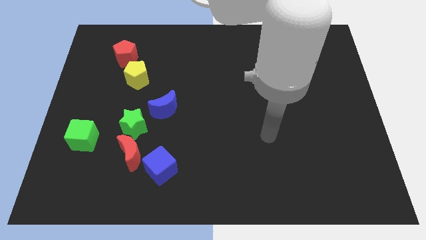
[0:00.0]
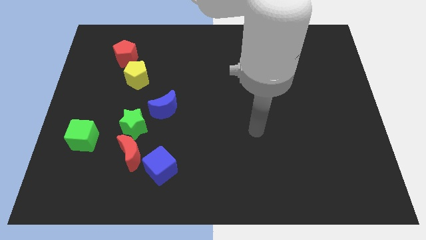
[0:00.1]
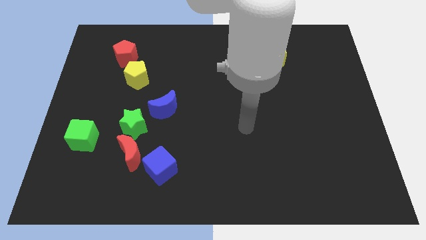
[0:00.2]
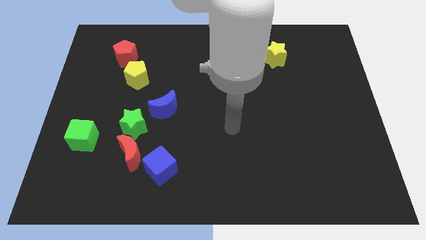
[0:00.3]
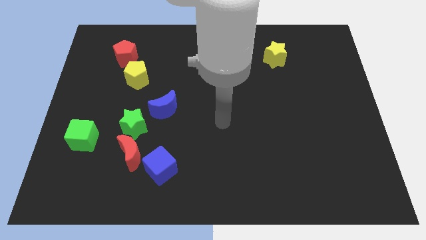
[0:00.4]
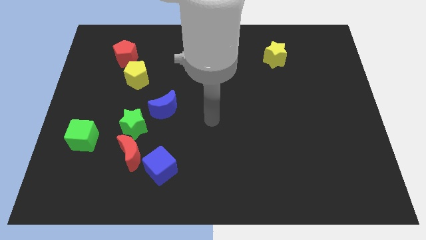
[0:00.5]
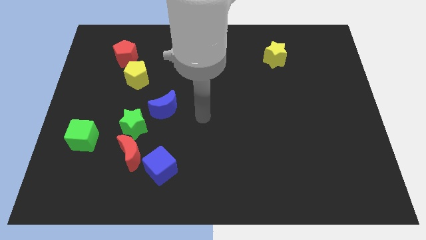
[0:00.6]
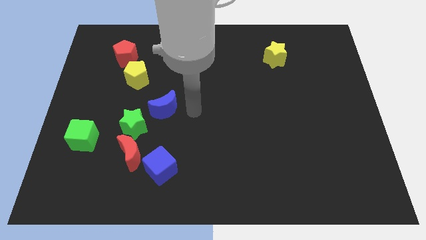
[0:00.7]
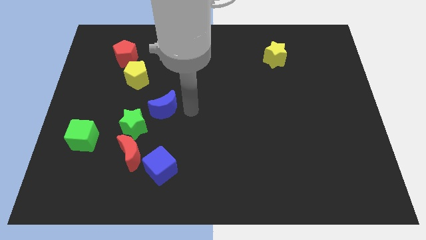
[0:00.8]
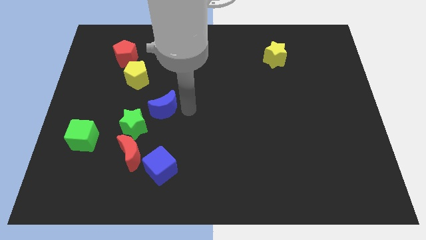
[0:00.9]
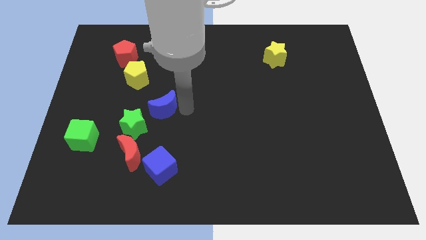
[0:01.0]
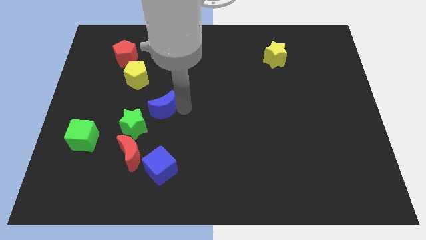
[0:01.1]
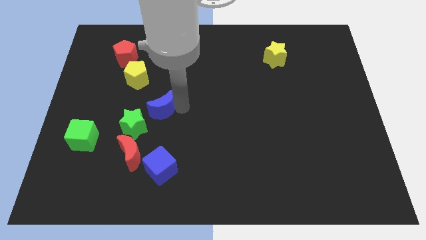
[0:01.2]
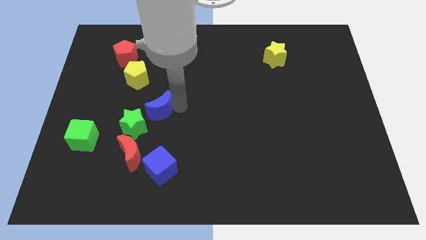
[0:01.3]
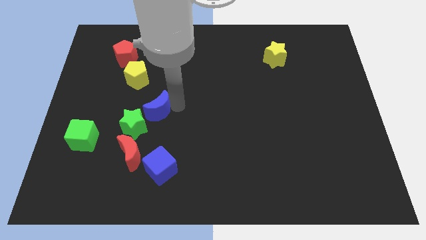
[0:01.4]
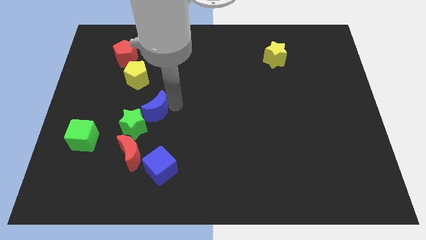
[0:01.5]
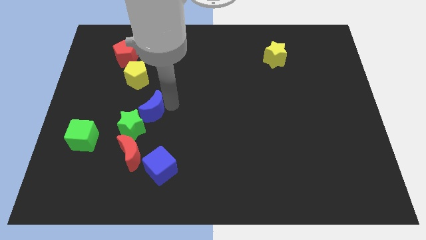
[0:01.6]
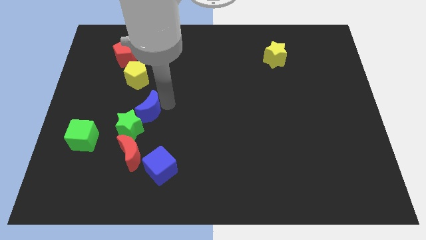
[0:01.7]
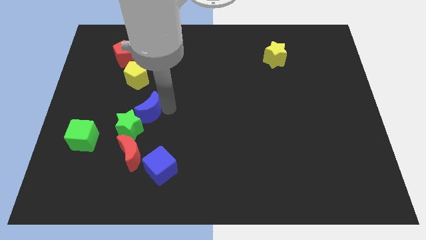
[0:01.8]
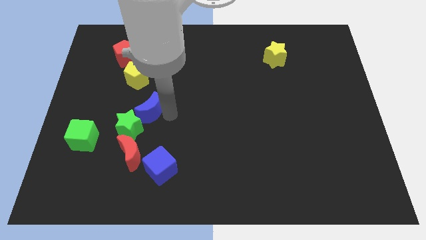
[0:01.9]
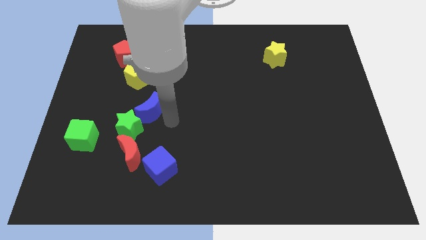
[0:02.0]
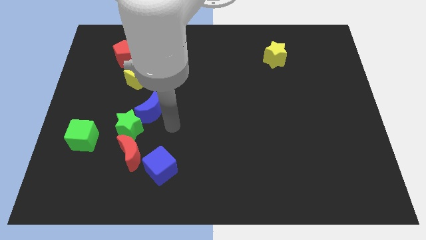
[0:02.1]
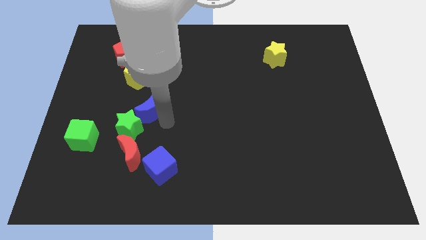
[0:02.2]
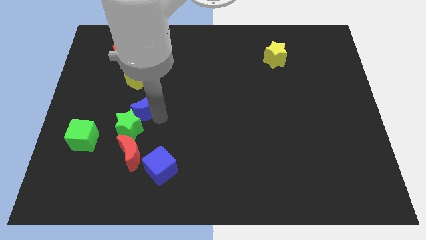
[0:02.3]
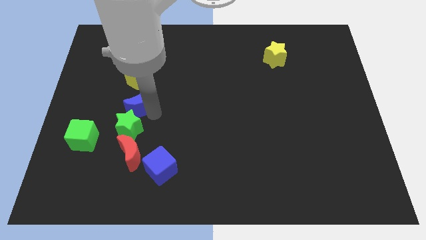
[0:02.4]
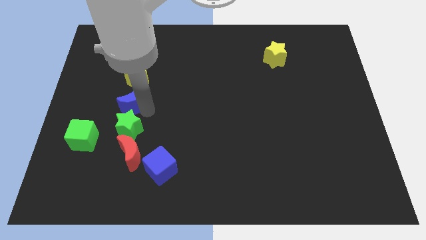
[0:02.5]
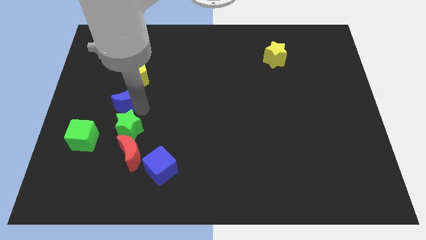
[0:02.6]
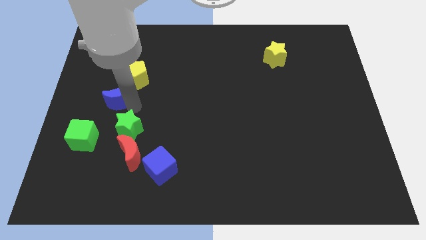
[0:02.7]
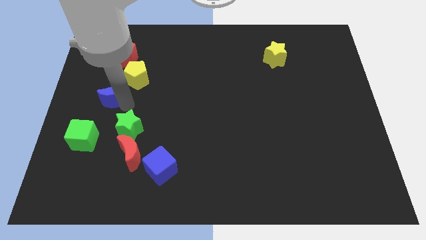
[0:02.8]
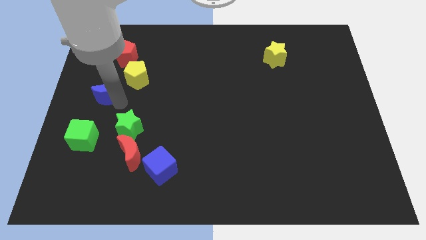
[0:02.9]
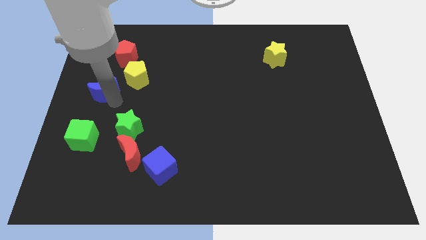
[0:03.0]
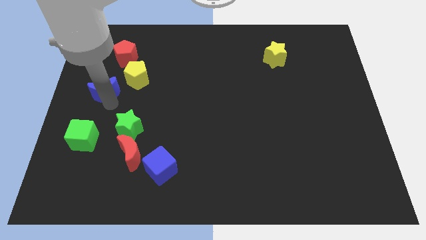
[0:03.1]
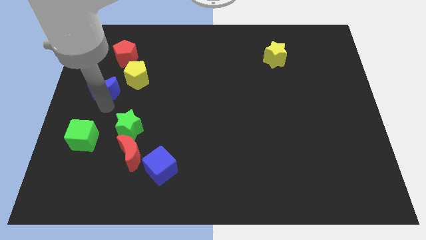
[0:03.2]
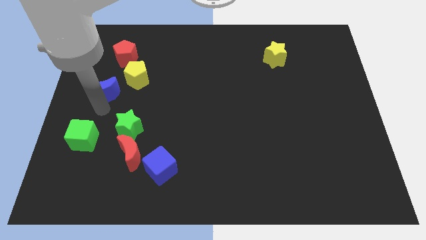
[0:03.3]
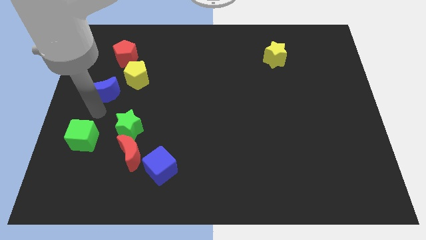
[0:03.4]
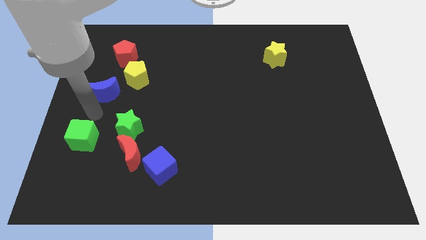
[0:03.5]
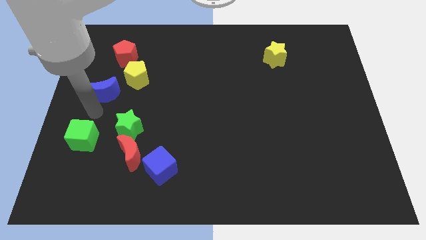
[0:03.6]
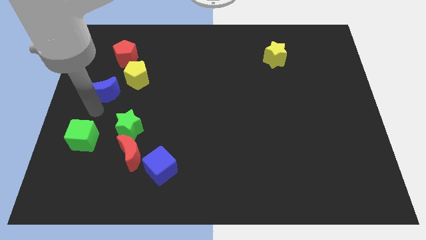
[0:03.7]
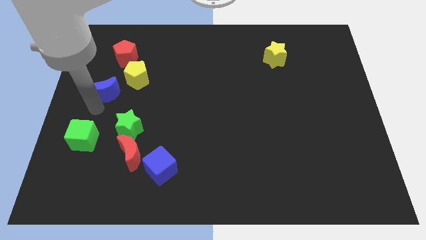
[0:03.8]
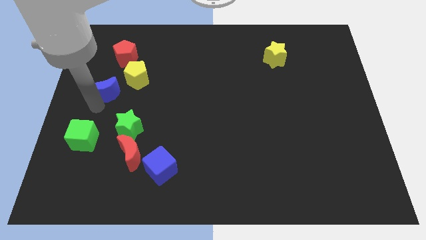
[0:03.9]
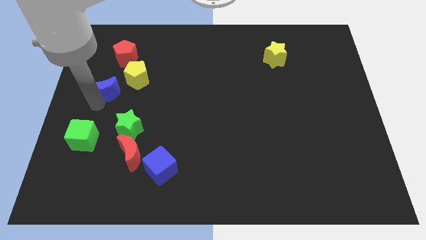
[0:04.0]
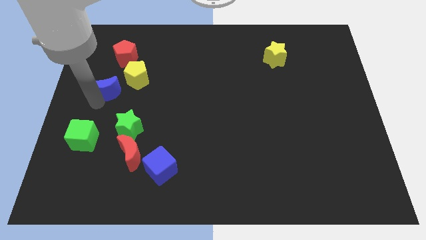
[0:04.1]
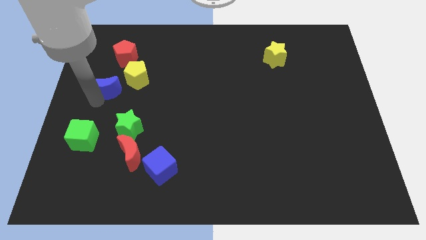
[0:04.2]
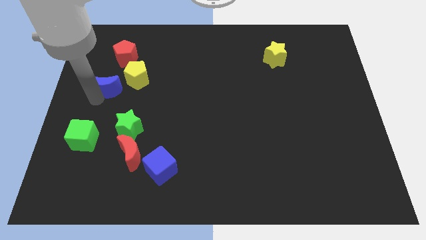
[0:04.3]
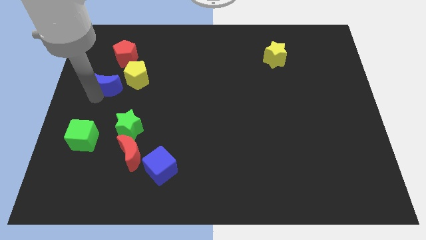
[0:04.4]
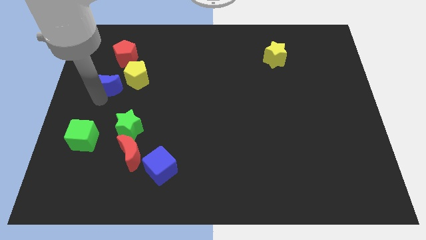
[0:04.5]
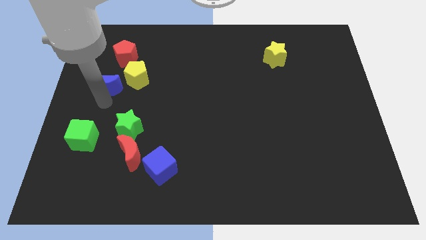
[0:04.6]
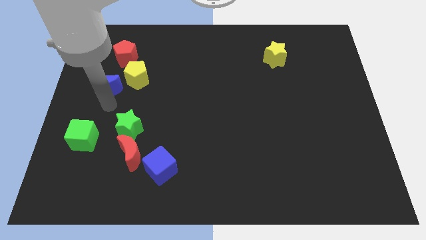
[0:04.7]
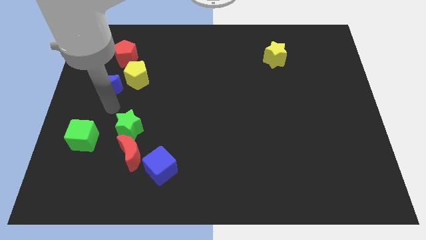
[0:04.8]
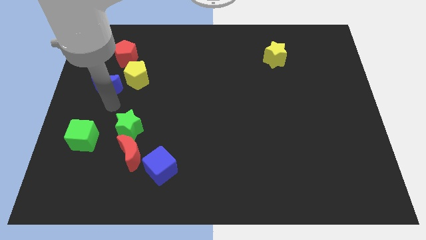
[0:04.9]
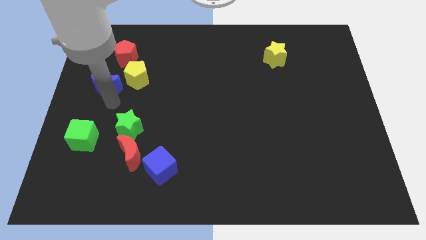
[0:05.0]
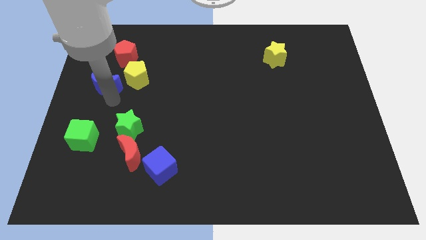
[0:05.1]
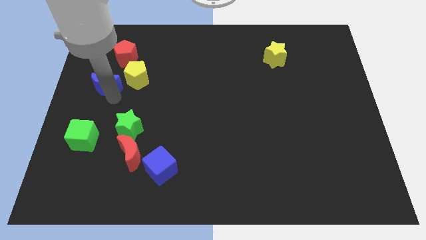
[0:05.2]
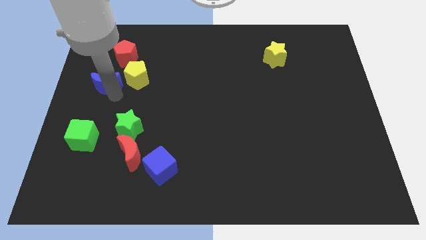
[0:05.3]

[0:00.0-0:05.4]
move the blue moon to the bottom left side of the red pentagon

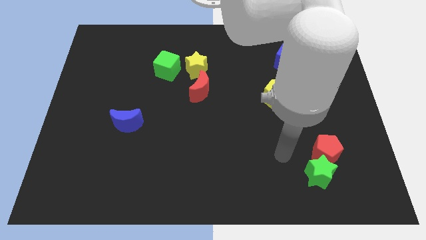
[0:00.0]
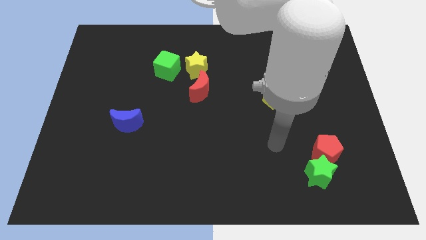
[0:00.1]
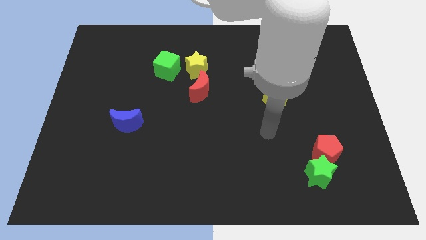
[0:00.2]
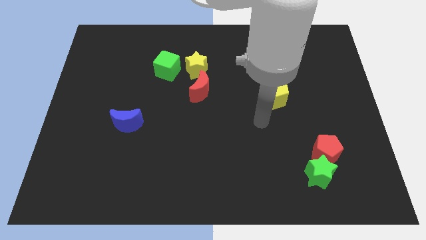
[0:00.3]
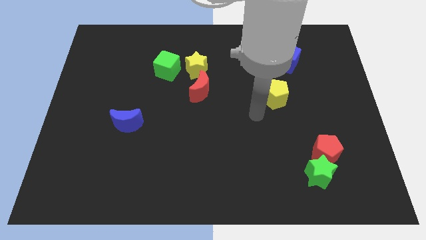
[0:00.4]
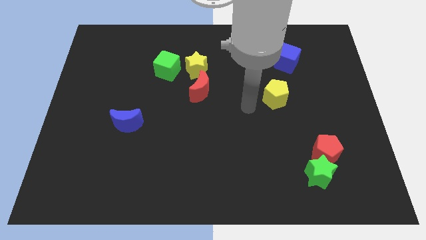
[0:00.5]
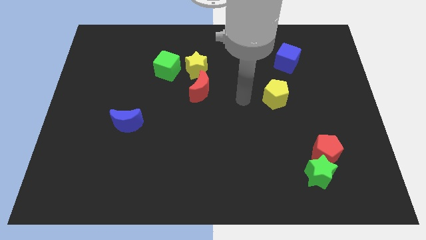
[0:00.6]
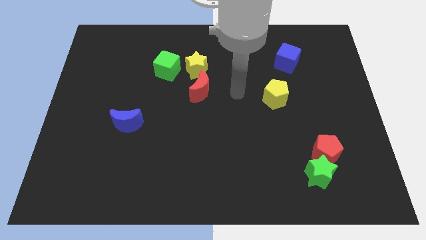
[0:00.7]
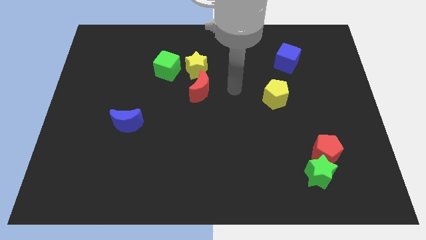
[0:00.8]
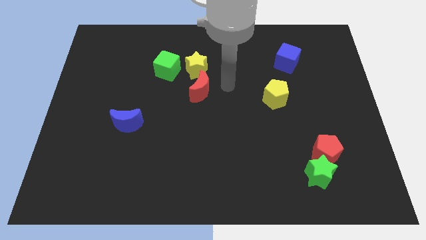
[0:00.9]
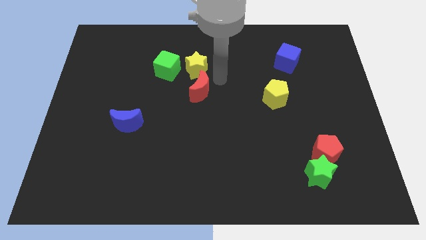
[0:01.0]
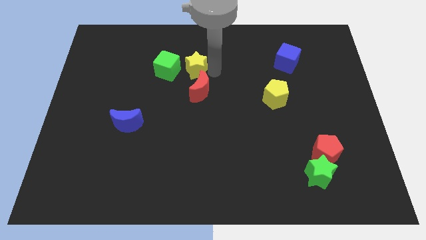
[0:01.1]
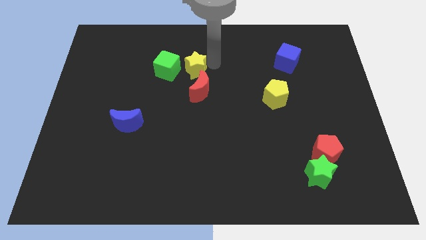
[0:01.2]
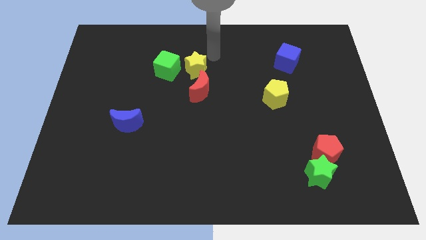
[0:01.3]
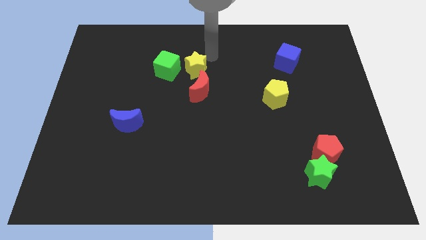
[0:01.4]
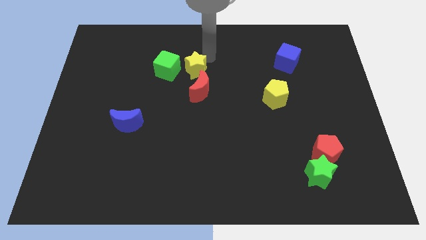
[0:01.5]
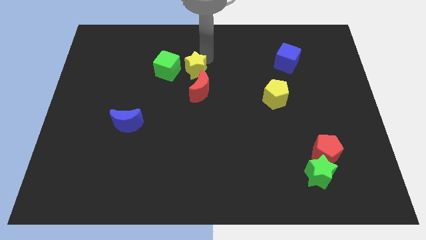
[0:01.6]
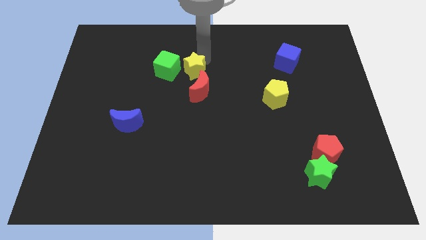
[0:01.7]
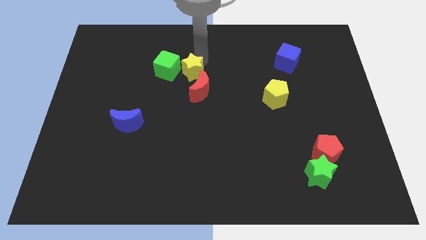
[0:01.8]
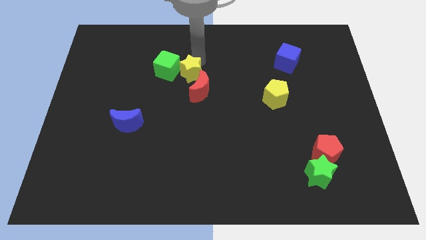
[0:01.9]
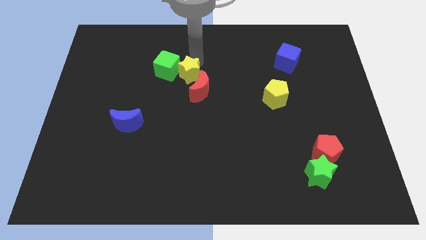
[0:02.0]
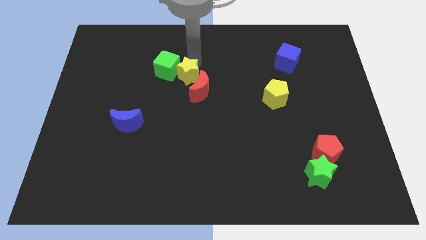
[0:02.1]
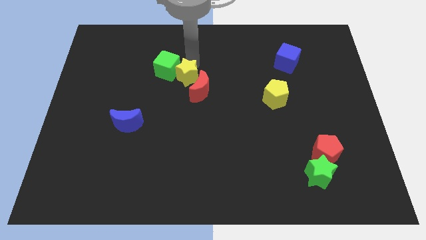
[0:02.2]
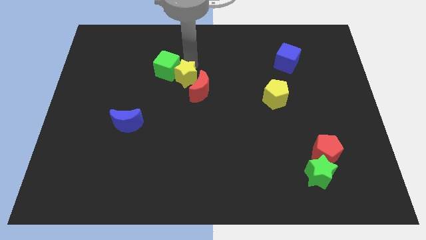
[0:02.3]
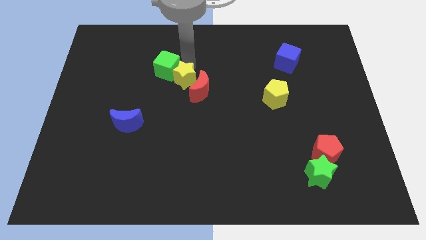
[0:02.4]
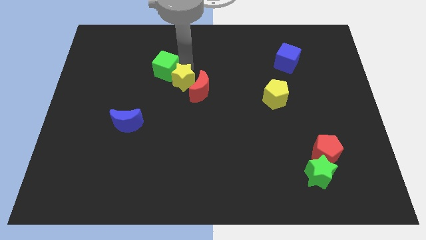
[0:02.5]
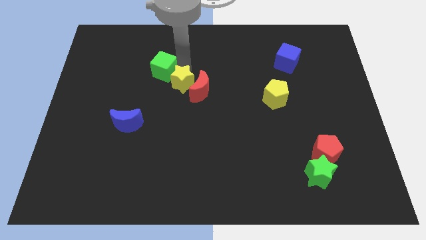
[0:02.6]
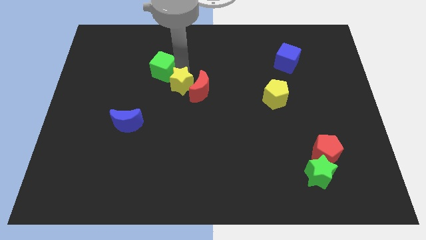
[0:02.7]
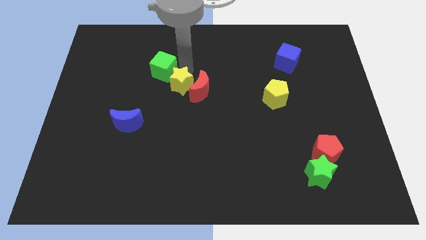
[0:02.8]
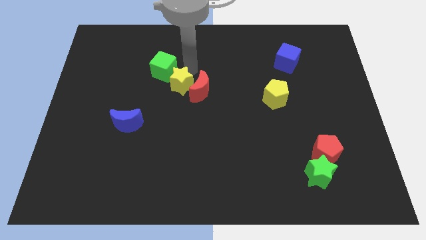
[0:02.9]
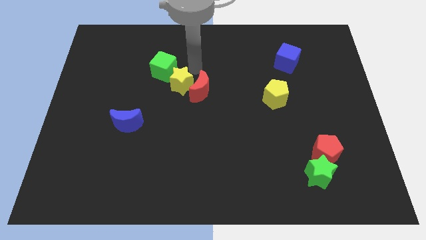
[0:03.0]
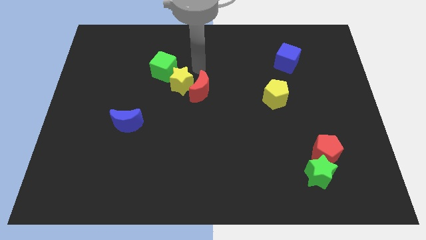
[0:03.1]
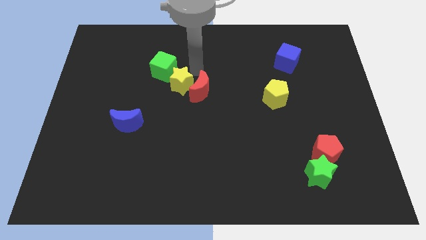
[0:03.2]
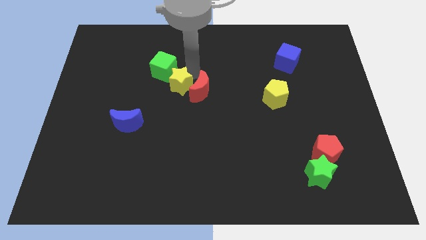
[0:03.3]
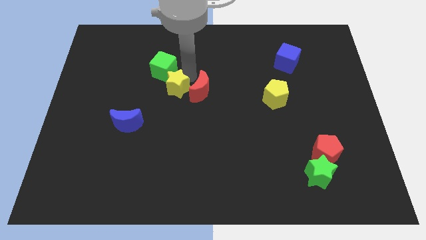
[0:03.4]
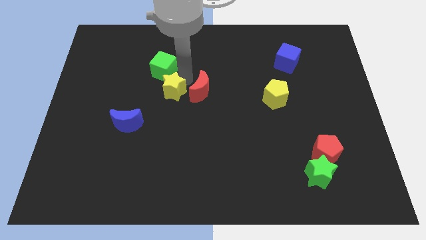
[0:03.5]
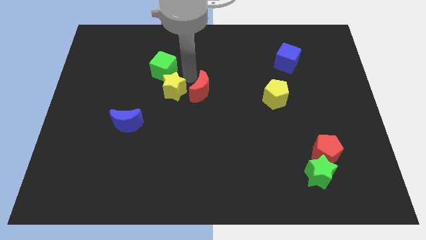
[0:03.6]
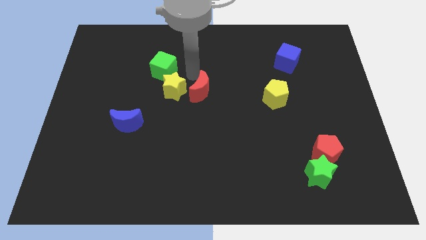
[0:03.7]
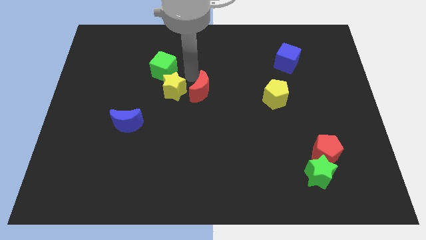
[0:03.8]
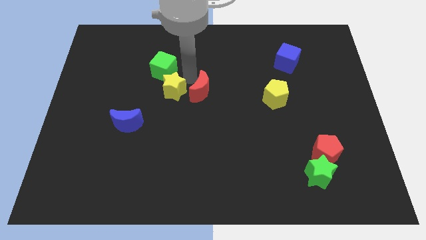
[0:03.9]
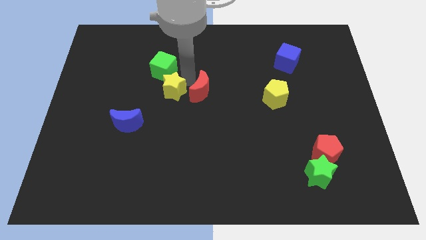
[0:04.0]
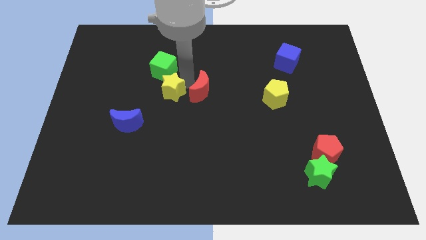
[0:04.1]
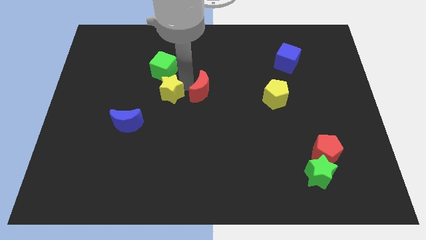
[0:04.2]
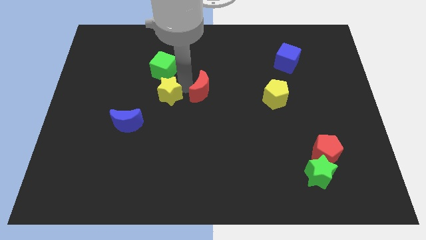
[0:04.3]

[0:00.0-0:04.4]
slide the yellow star diagonally up and to the right of the blue moon
